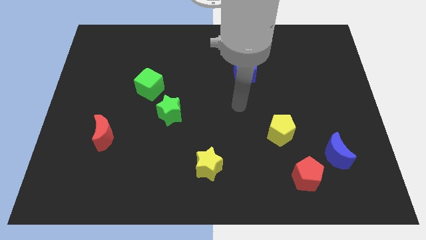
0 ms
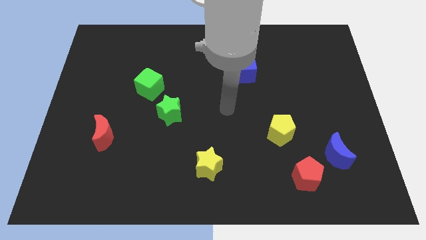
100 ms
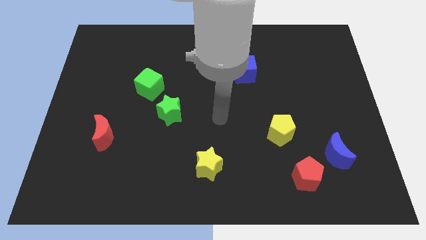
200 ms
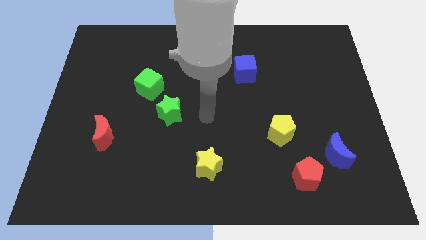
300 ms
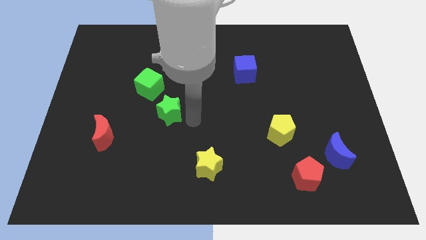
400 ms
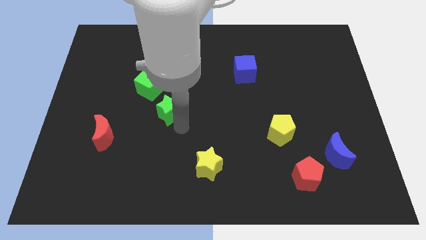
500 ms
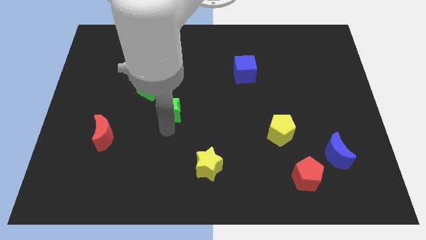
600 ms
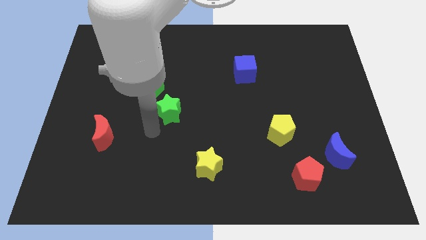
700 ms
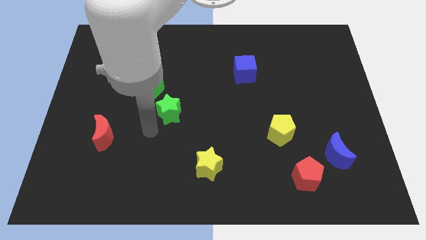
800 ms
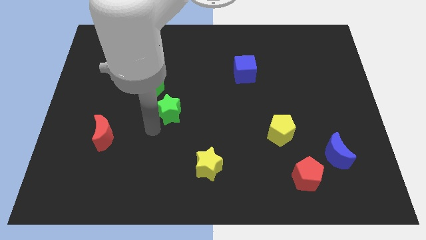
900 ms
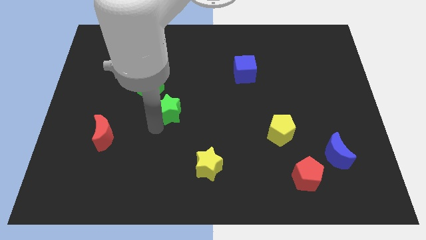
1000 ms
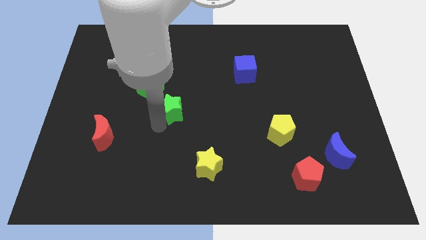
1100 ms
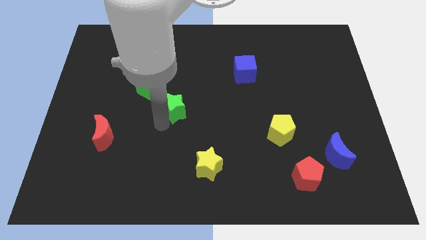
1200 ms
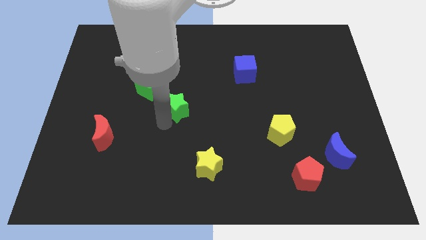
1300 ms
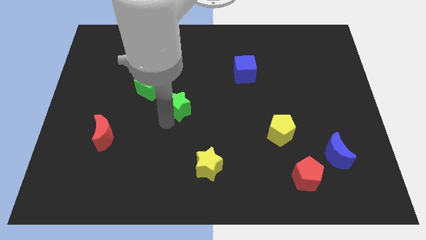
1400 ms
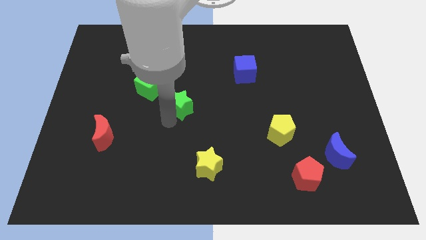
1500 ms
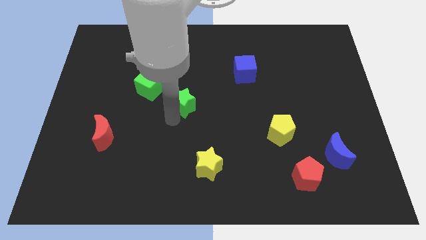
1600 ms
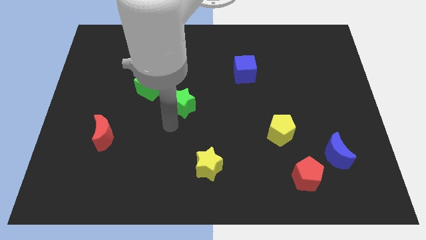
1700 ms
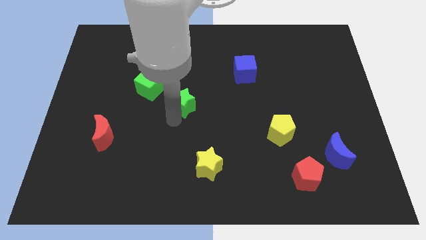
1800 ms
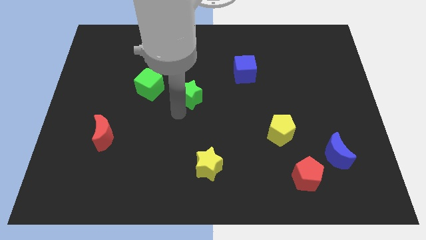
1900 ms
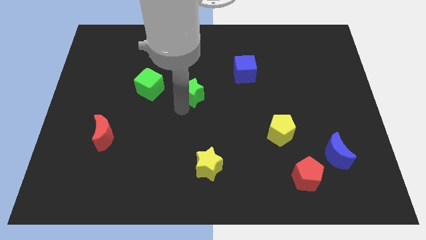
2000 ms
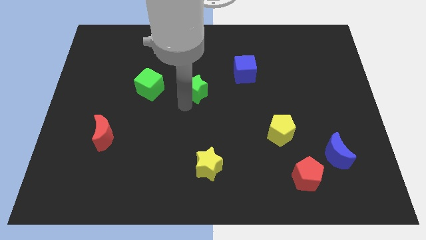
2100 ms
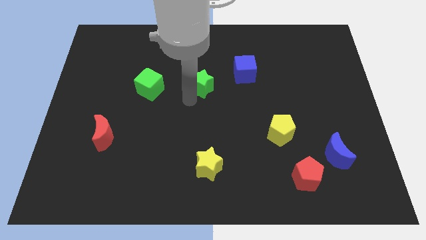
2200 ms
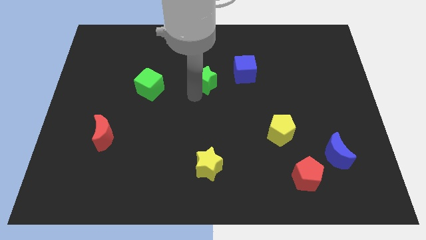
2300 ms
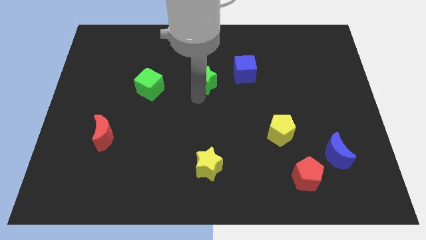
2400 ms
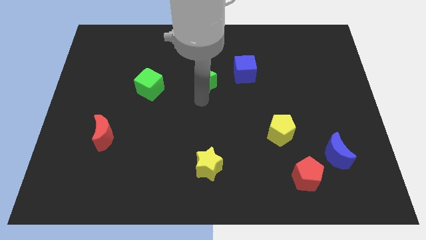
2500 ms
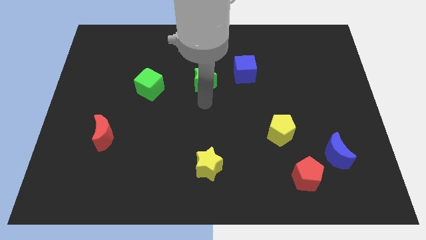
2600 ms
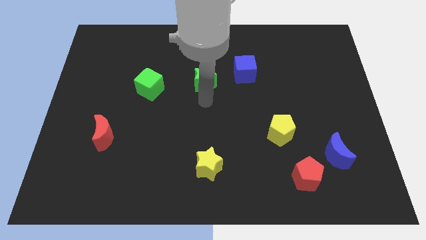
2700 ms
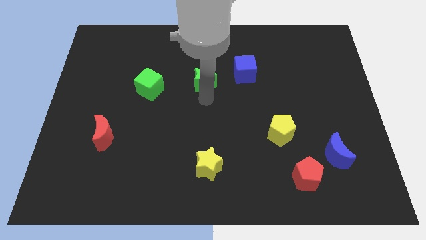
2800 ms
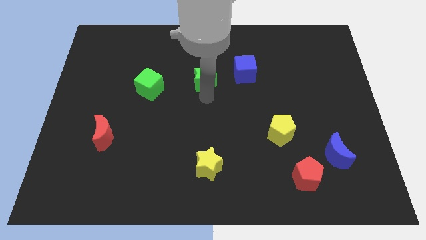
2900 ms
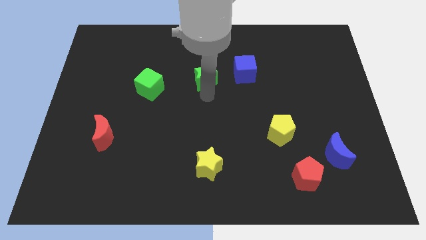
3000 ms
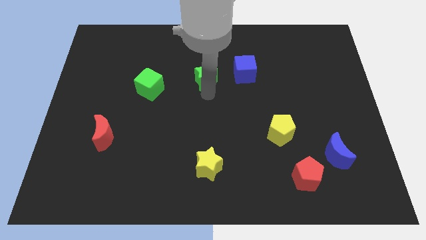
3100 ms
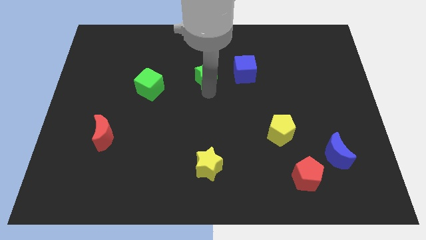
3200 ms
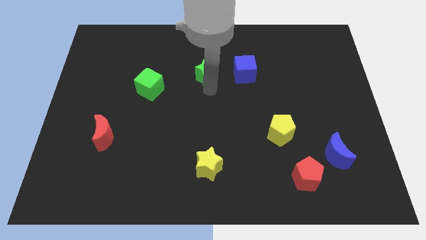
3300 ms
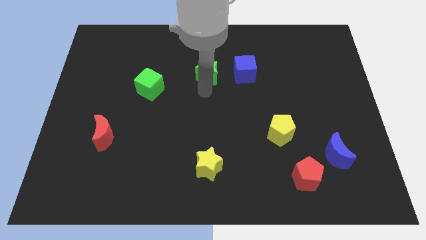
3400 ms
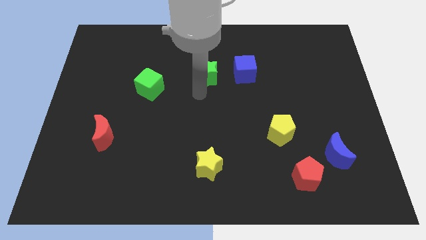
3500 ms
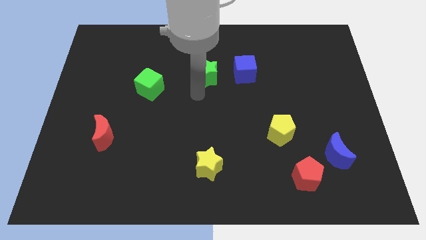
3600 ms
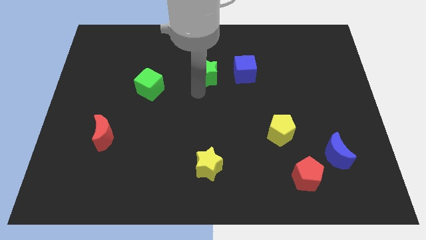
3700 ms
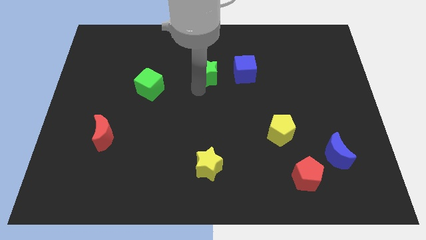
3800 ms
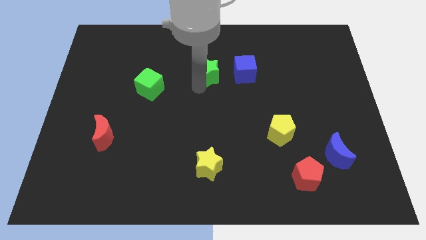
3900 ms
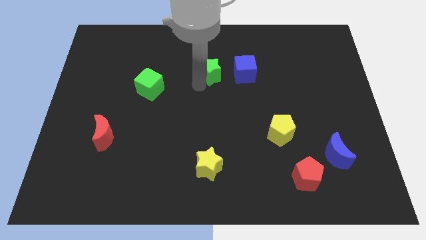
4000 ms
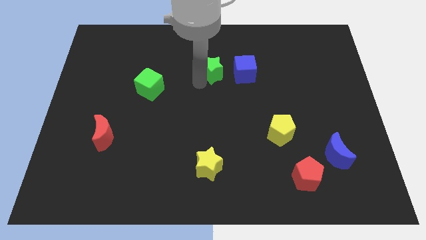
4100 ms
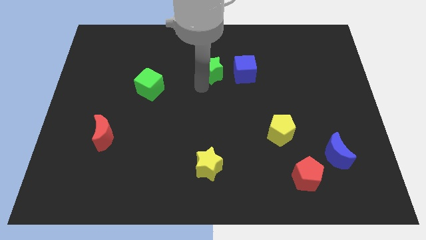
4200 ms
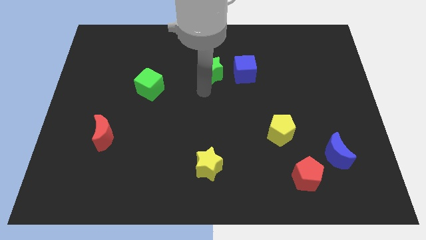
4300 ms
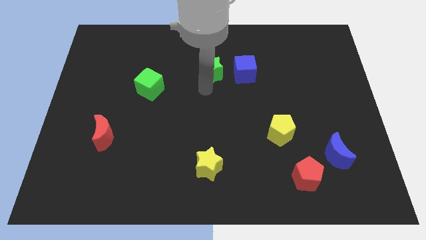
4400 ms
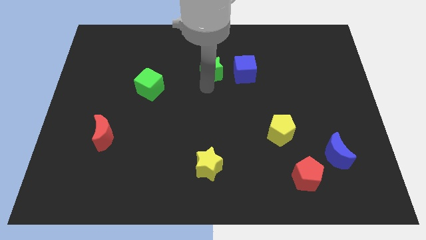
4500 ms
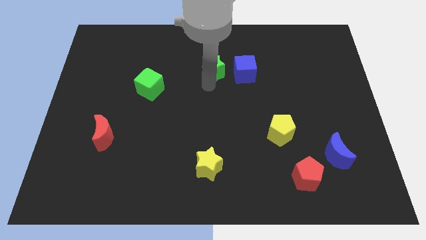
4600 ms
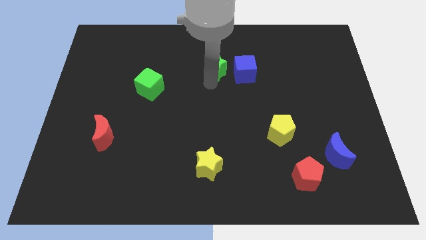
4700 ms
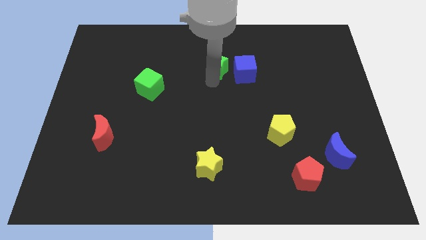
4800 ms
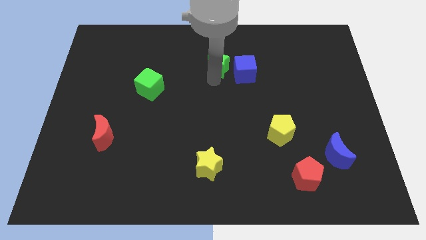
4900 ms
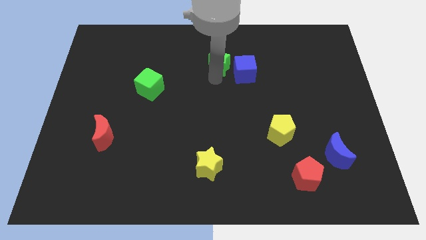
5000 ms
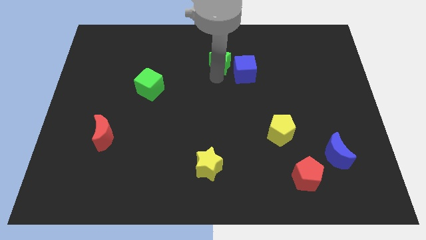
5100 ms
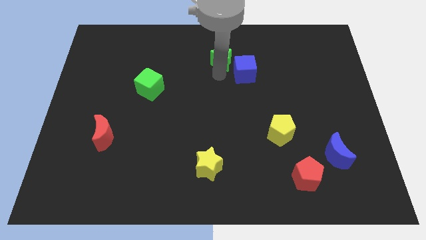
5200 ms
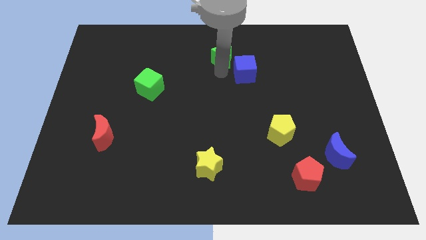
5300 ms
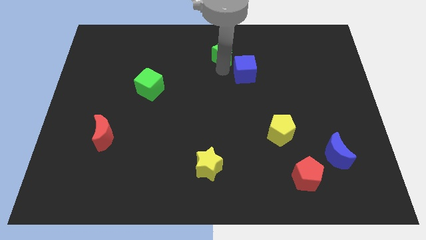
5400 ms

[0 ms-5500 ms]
put the green star to the towards your base
